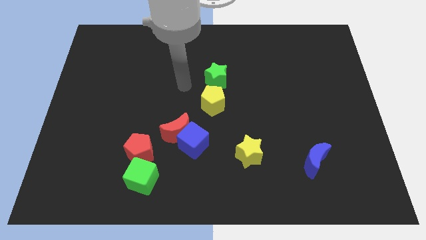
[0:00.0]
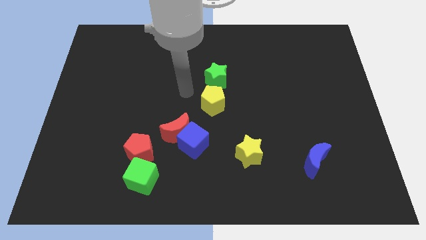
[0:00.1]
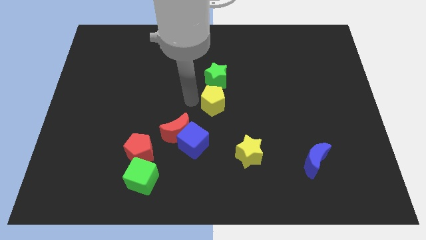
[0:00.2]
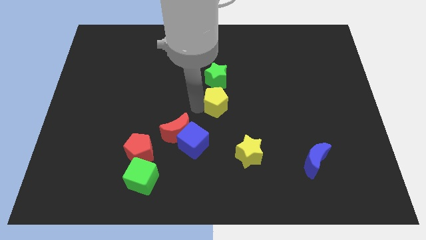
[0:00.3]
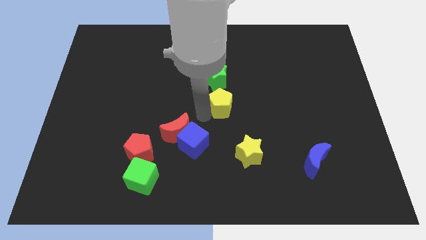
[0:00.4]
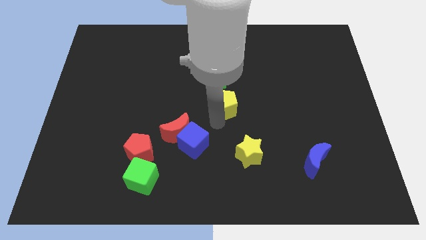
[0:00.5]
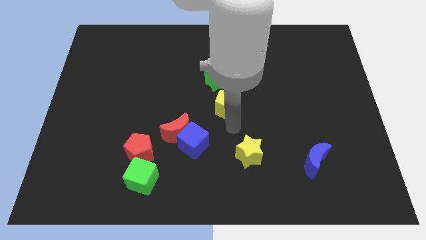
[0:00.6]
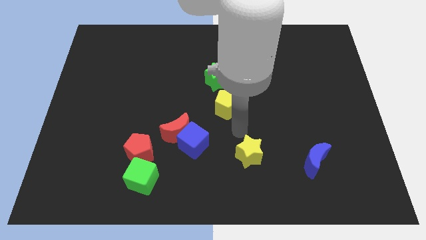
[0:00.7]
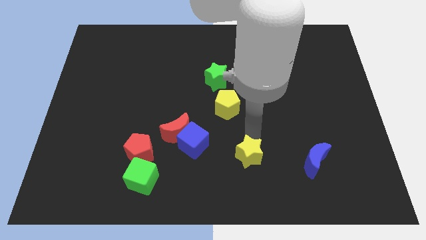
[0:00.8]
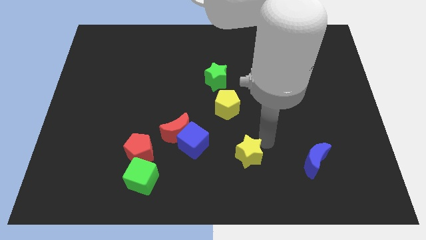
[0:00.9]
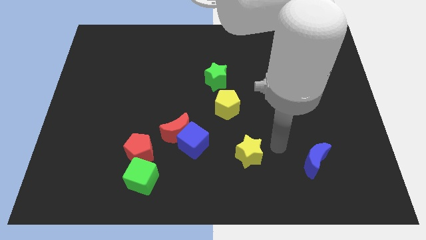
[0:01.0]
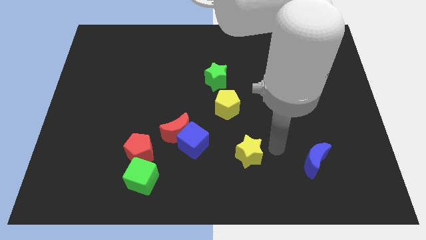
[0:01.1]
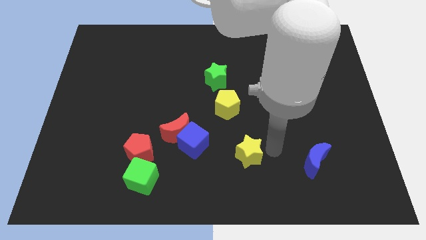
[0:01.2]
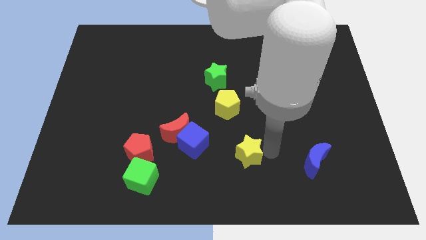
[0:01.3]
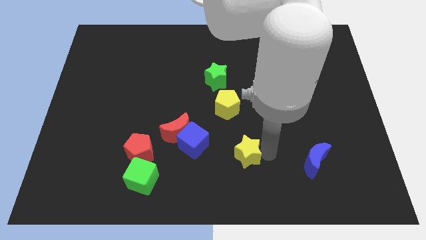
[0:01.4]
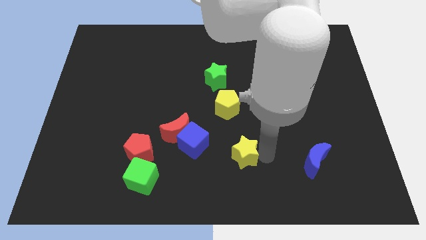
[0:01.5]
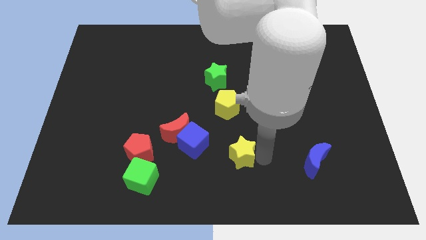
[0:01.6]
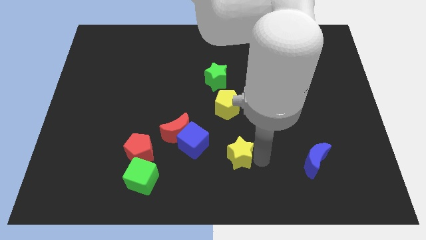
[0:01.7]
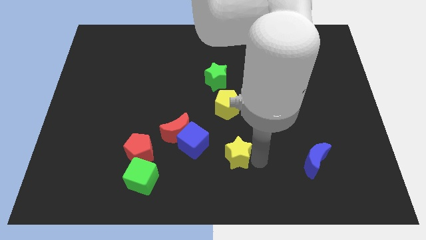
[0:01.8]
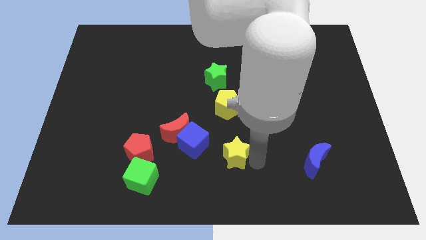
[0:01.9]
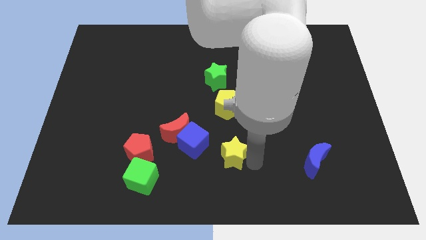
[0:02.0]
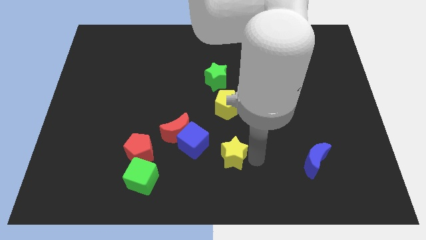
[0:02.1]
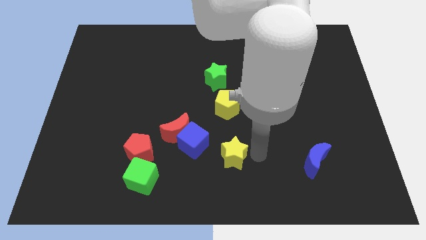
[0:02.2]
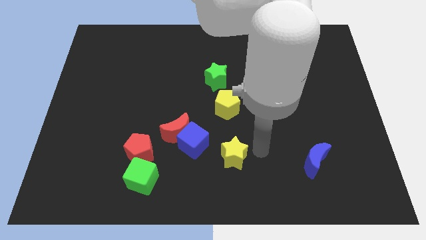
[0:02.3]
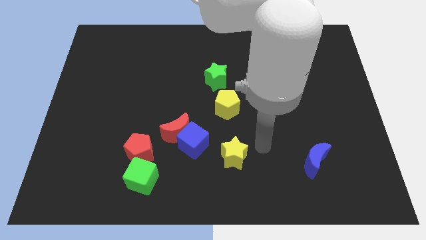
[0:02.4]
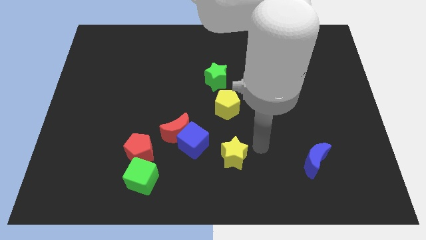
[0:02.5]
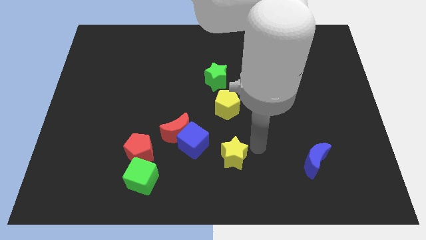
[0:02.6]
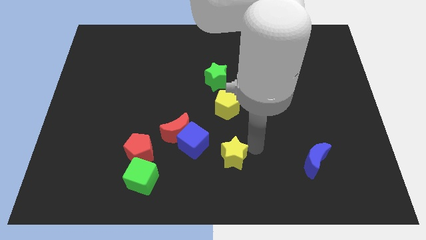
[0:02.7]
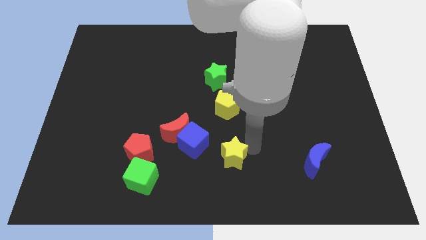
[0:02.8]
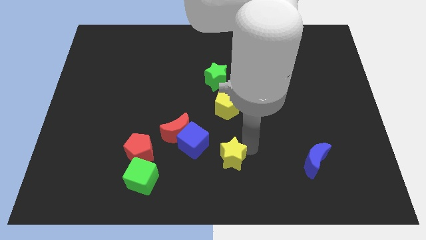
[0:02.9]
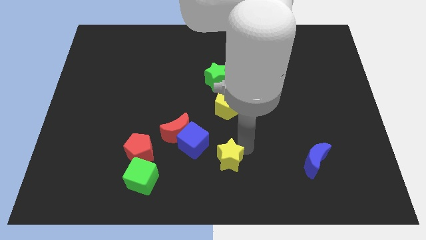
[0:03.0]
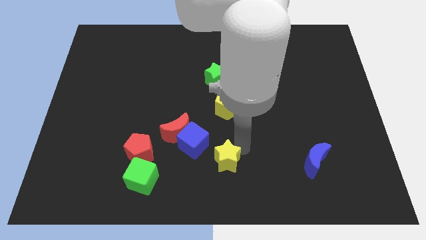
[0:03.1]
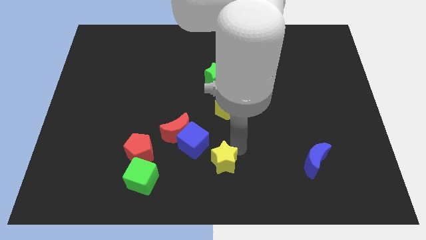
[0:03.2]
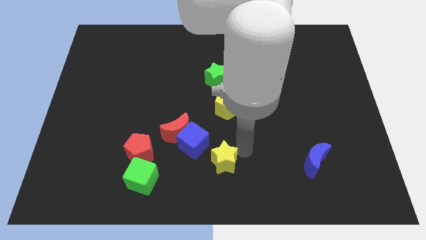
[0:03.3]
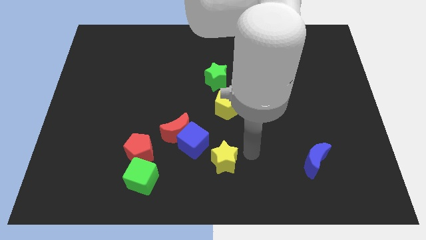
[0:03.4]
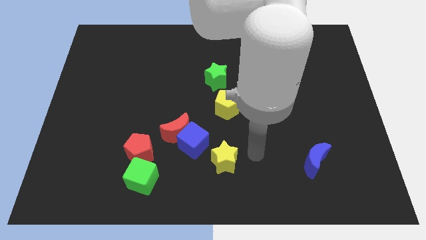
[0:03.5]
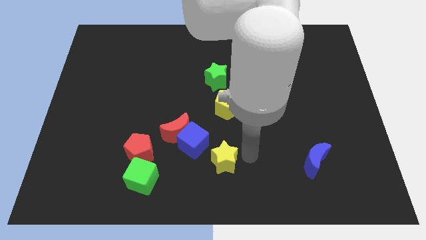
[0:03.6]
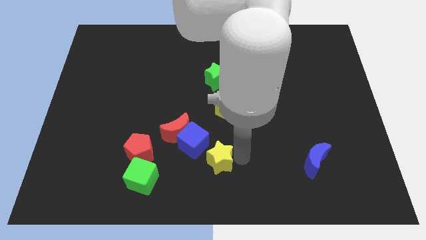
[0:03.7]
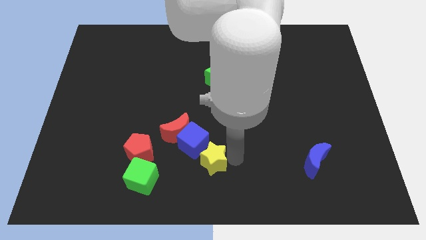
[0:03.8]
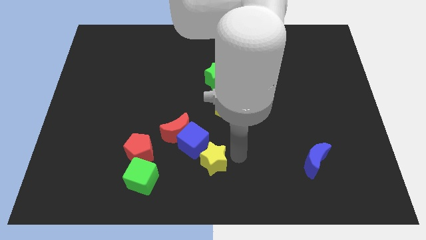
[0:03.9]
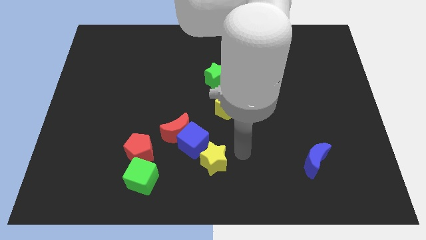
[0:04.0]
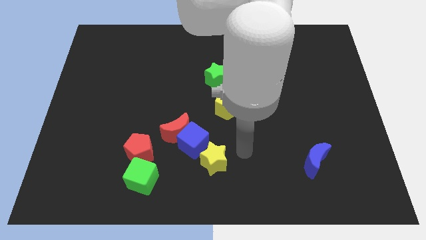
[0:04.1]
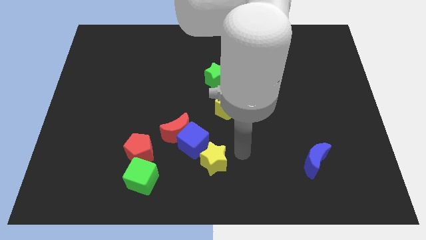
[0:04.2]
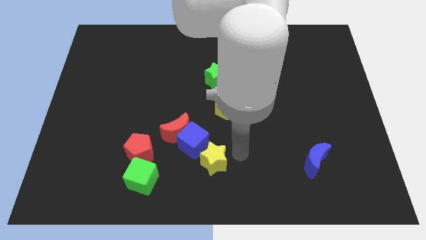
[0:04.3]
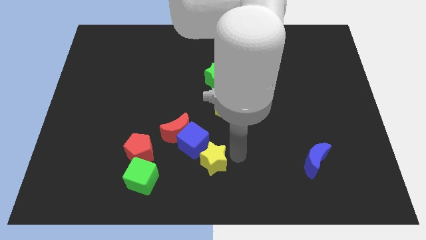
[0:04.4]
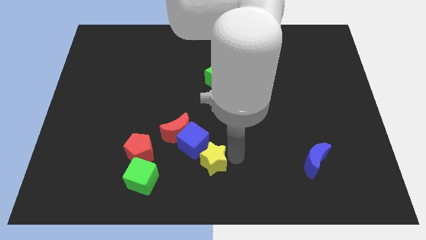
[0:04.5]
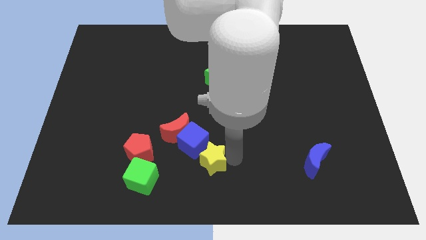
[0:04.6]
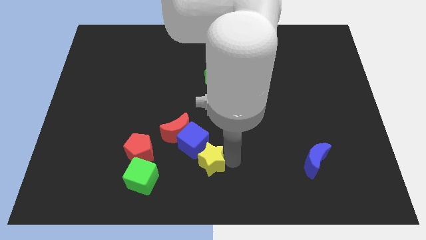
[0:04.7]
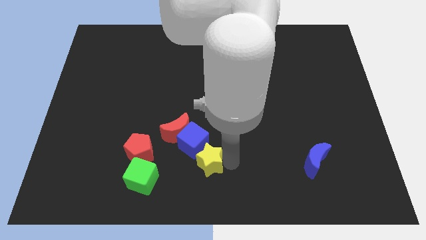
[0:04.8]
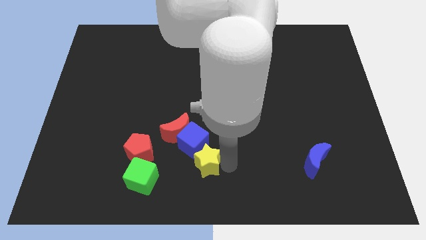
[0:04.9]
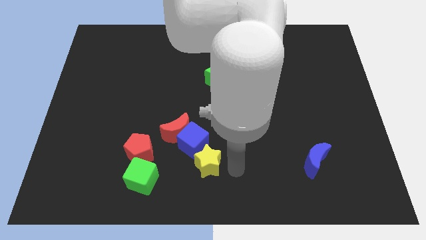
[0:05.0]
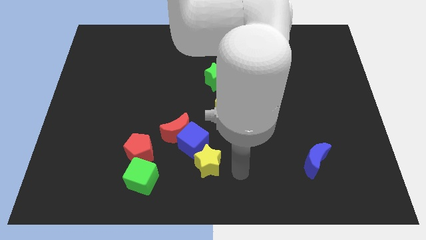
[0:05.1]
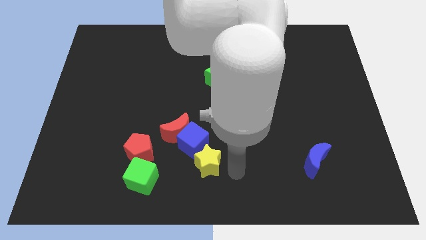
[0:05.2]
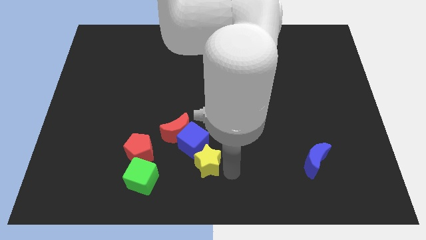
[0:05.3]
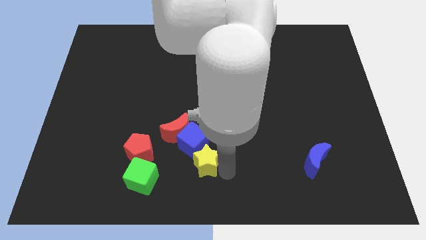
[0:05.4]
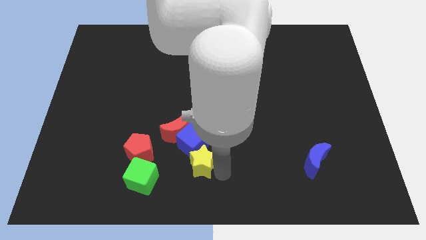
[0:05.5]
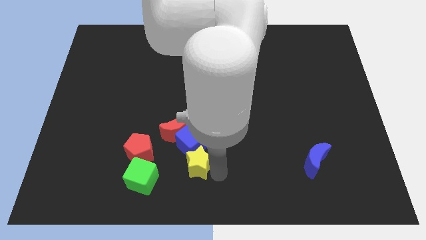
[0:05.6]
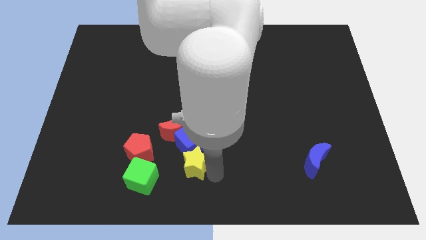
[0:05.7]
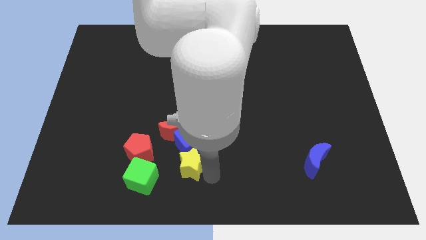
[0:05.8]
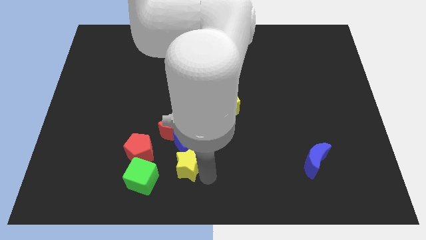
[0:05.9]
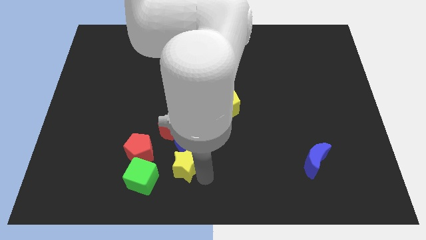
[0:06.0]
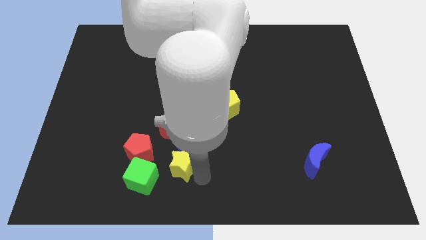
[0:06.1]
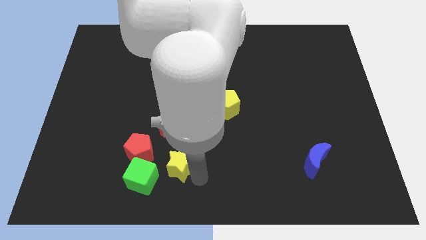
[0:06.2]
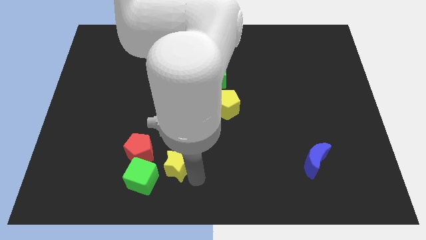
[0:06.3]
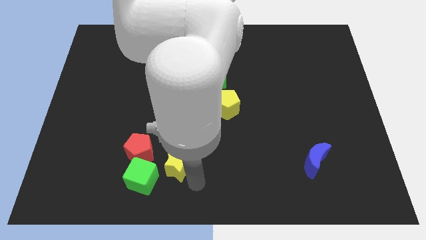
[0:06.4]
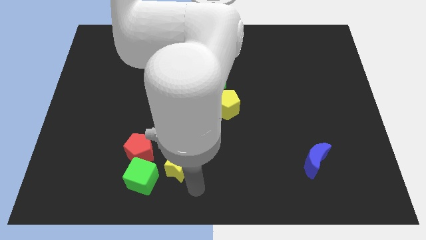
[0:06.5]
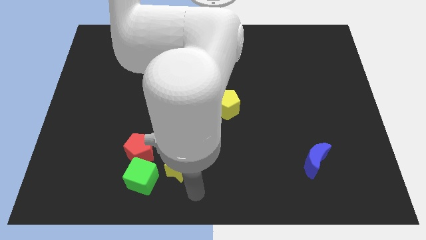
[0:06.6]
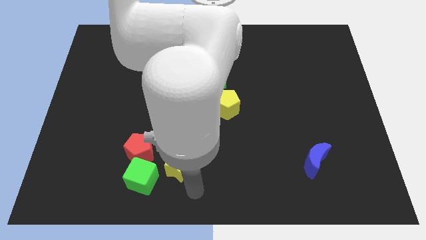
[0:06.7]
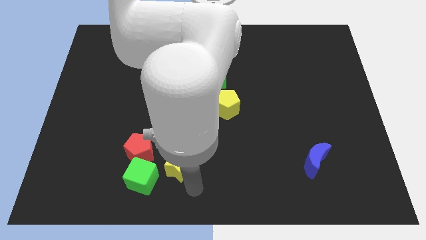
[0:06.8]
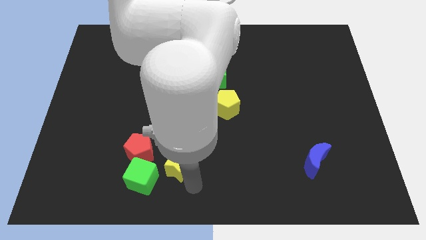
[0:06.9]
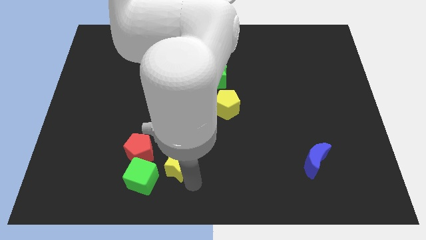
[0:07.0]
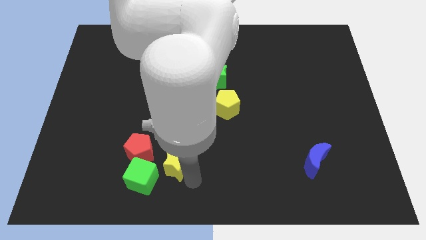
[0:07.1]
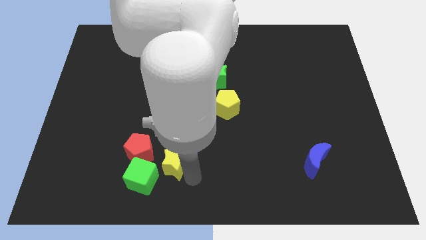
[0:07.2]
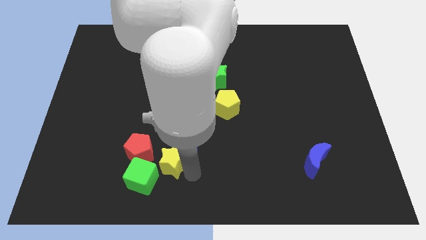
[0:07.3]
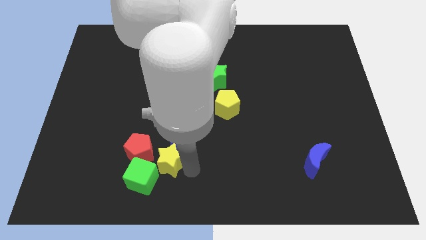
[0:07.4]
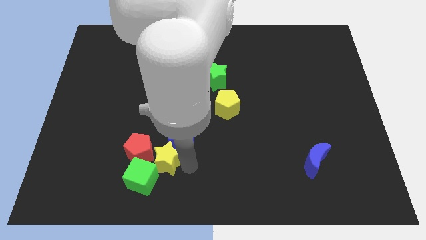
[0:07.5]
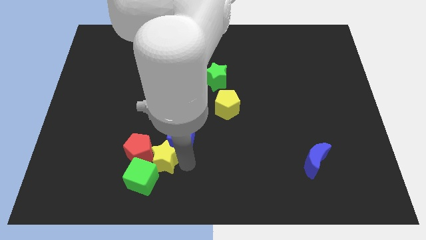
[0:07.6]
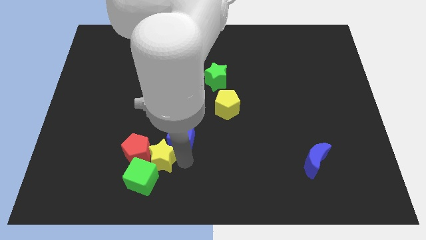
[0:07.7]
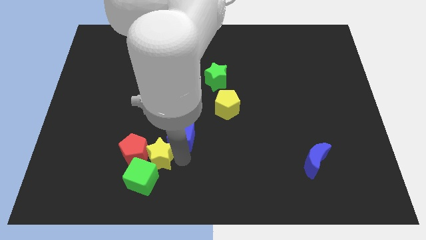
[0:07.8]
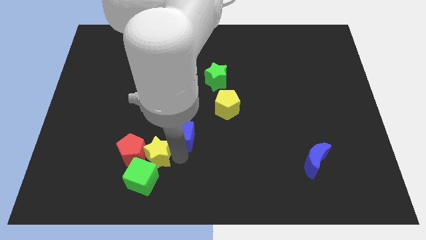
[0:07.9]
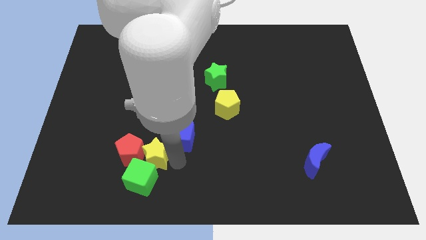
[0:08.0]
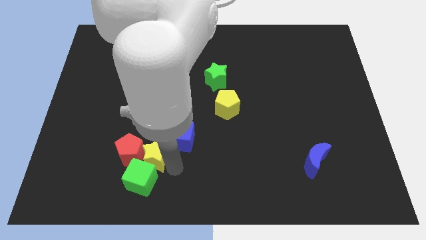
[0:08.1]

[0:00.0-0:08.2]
move the yellow star left

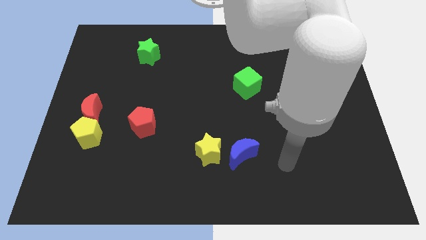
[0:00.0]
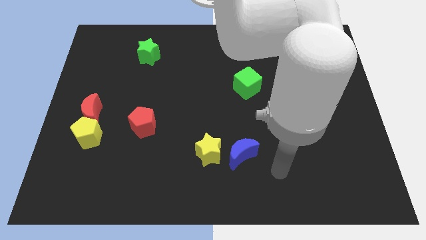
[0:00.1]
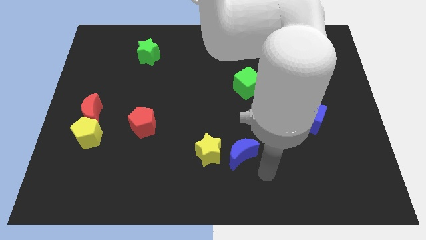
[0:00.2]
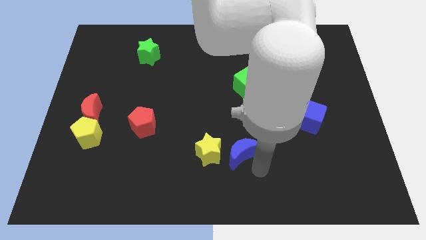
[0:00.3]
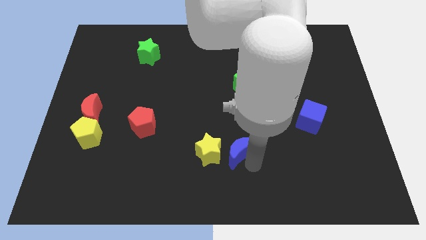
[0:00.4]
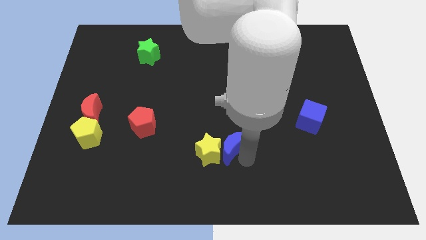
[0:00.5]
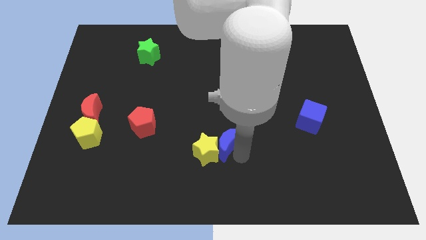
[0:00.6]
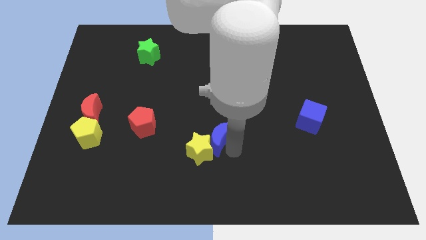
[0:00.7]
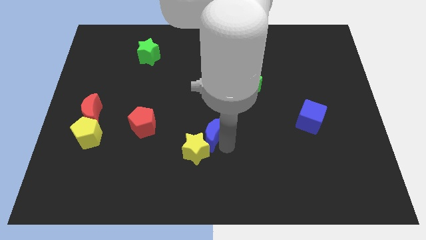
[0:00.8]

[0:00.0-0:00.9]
slide the blue moon a bit up and left
